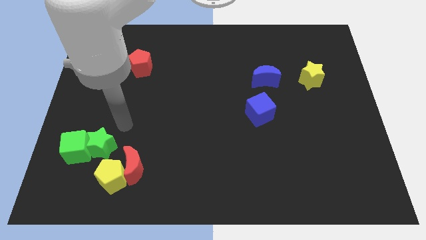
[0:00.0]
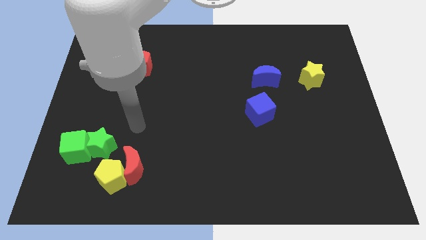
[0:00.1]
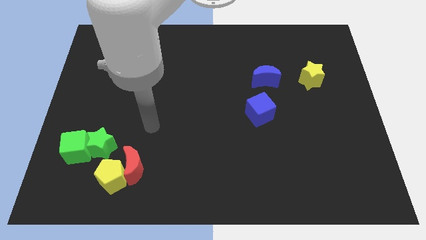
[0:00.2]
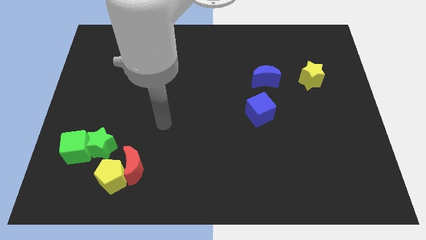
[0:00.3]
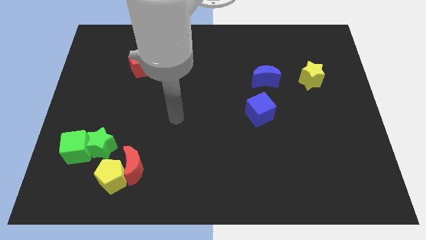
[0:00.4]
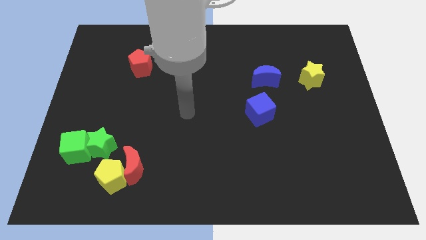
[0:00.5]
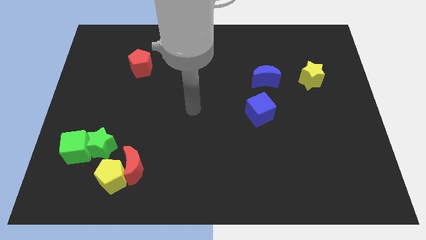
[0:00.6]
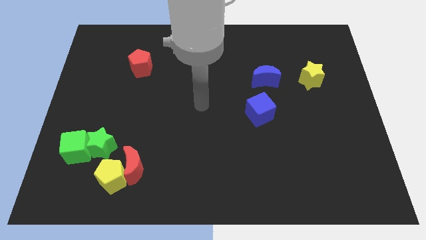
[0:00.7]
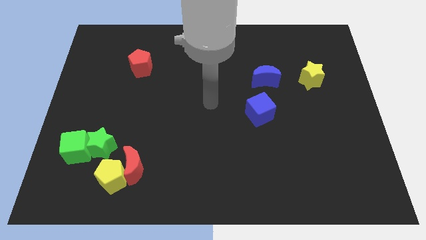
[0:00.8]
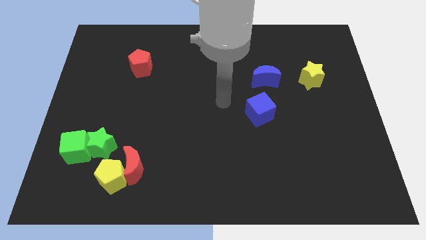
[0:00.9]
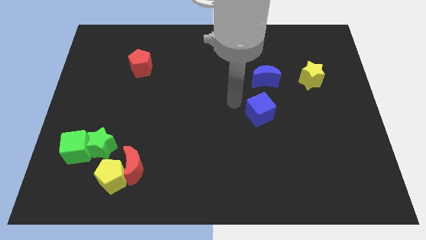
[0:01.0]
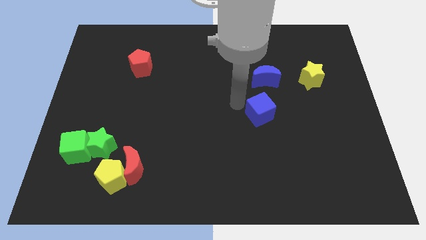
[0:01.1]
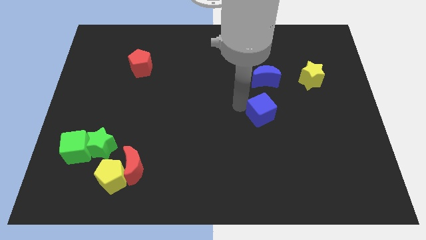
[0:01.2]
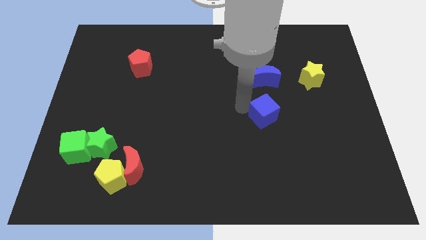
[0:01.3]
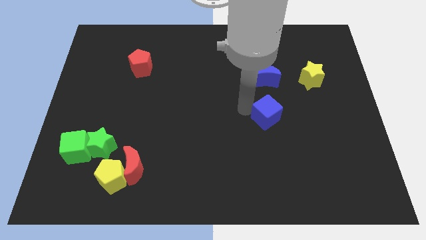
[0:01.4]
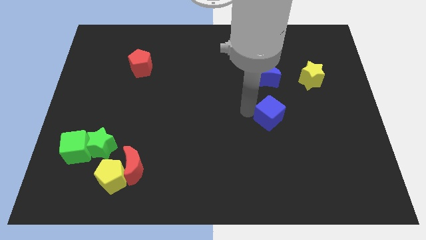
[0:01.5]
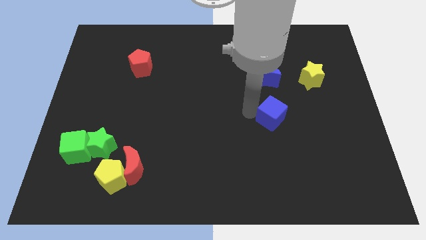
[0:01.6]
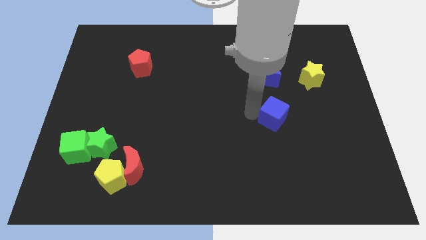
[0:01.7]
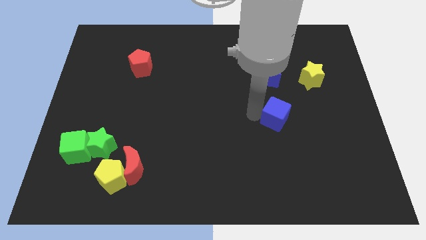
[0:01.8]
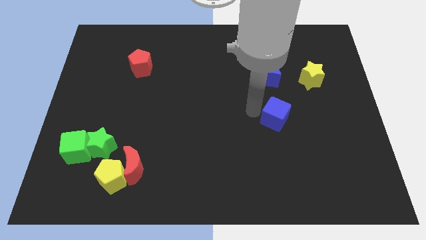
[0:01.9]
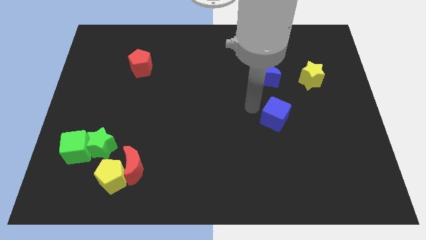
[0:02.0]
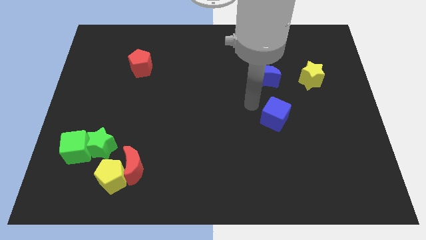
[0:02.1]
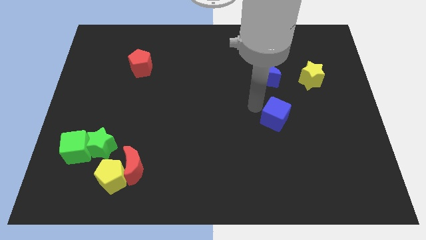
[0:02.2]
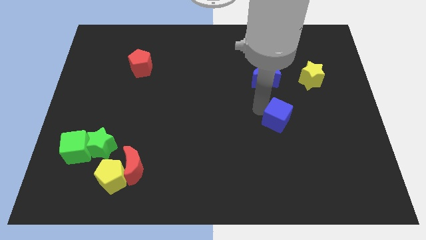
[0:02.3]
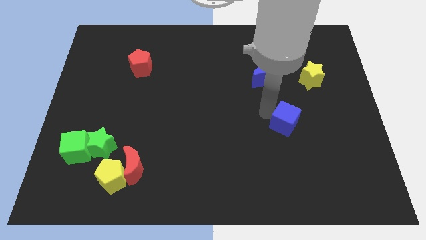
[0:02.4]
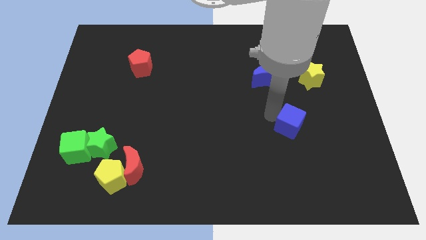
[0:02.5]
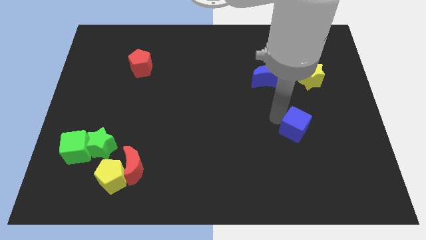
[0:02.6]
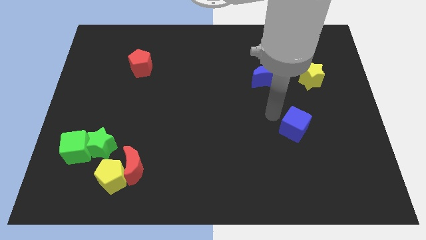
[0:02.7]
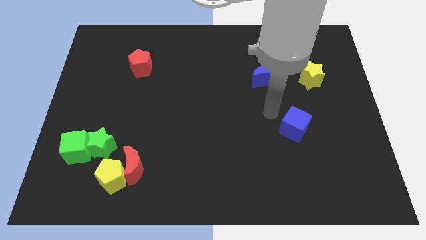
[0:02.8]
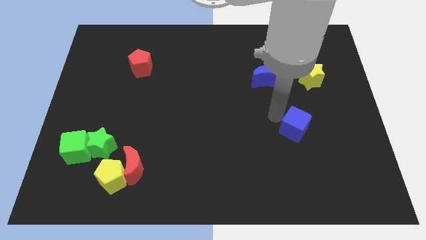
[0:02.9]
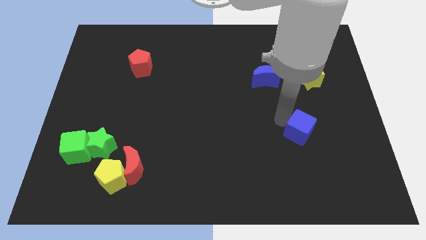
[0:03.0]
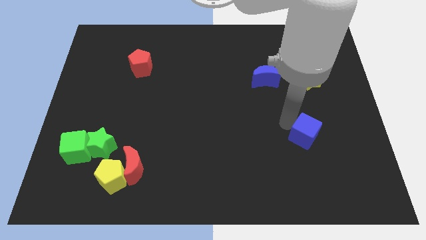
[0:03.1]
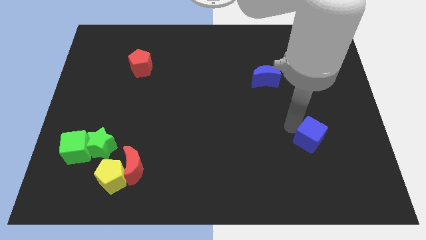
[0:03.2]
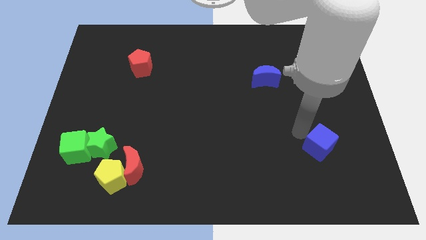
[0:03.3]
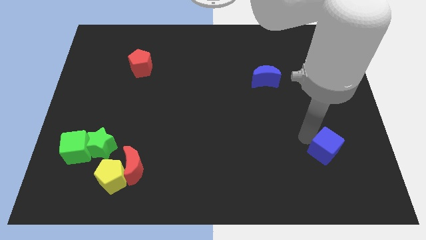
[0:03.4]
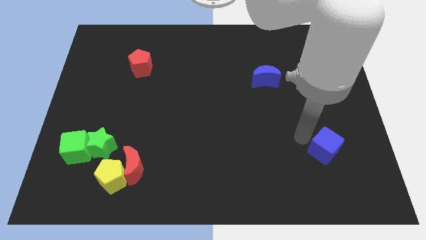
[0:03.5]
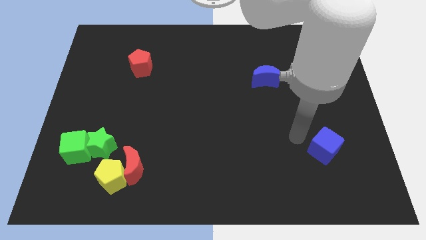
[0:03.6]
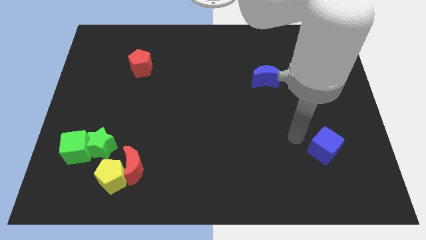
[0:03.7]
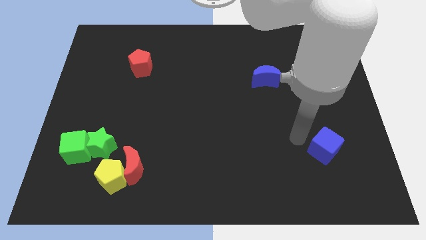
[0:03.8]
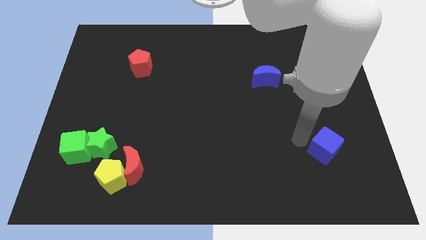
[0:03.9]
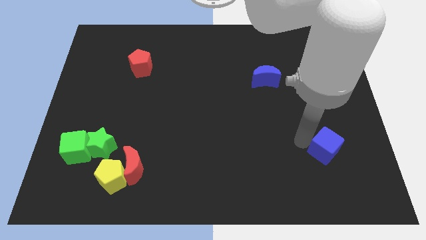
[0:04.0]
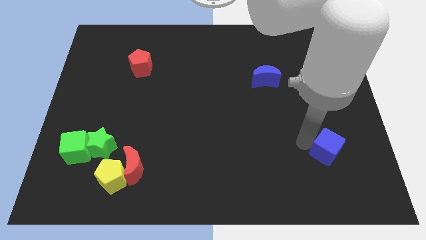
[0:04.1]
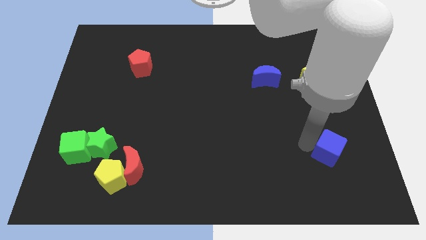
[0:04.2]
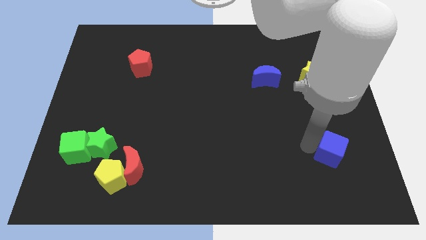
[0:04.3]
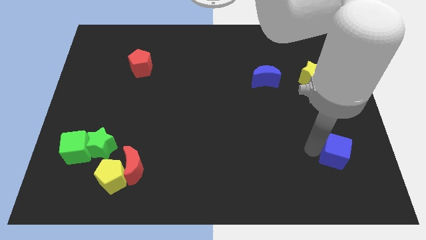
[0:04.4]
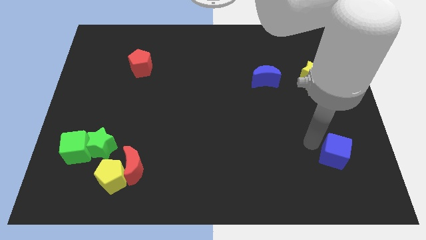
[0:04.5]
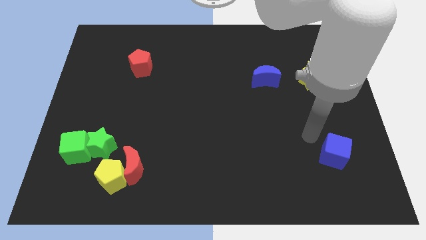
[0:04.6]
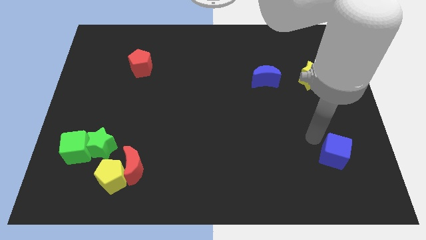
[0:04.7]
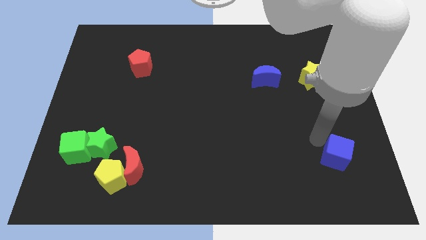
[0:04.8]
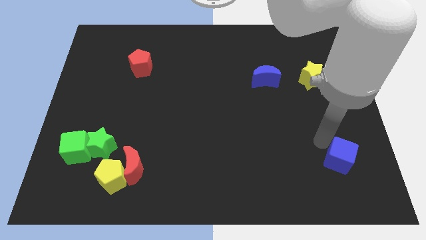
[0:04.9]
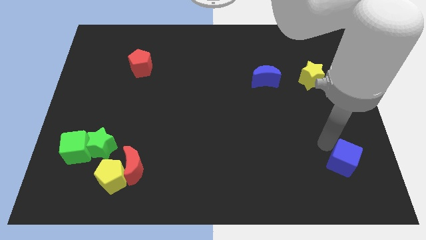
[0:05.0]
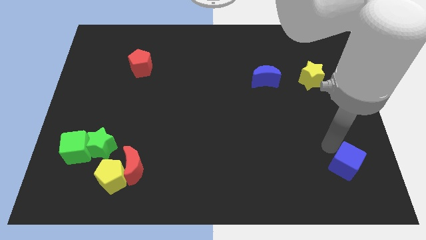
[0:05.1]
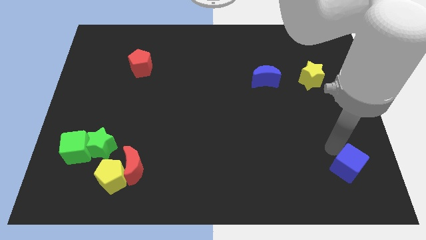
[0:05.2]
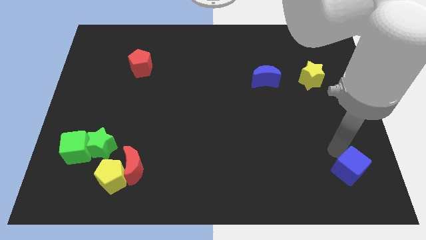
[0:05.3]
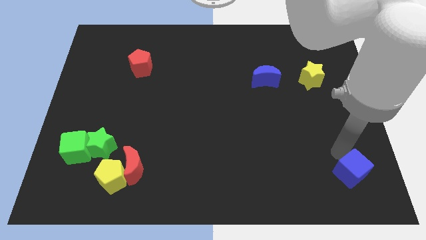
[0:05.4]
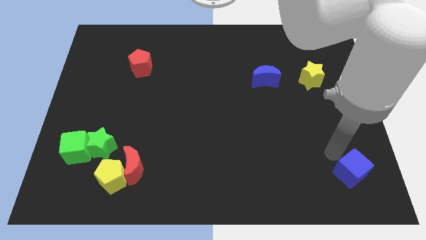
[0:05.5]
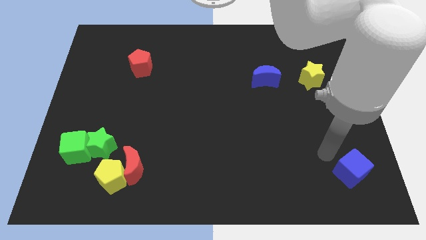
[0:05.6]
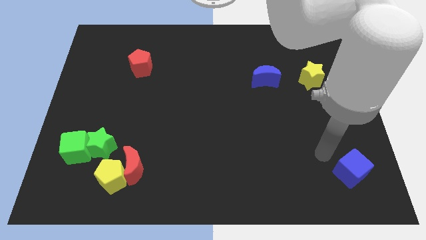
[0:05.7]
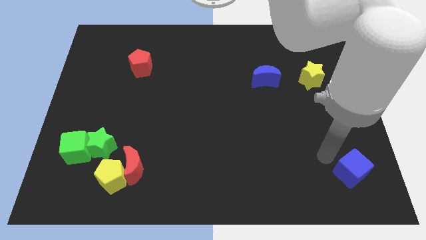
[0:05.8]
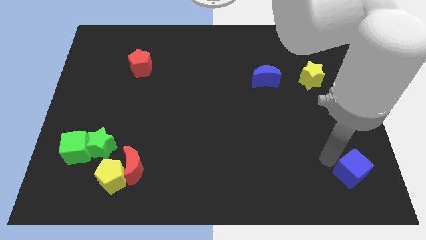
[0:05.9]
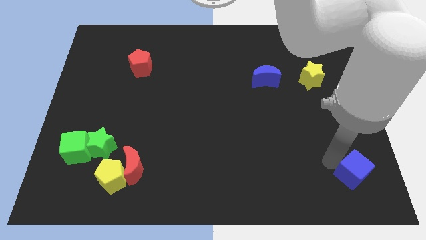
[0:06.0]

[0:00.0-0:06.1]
push the blue cube to the bottom right corner

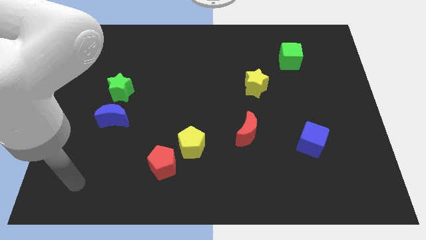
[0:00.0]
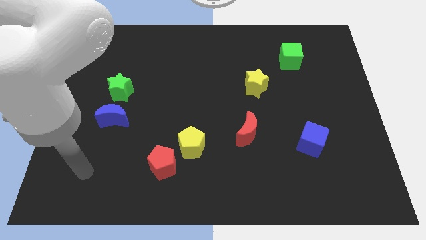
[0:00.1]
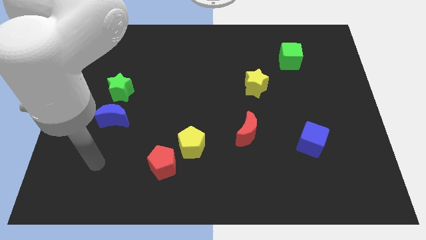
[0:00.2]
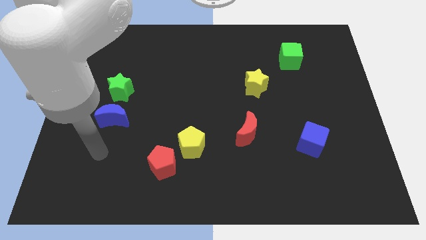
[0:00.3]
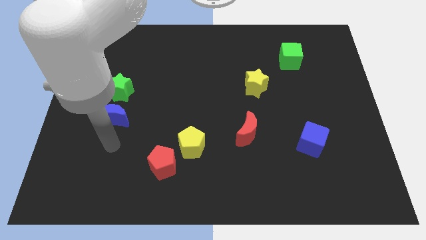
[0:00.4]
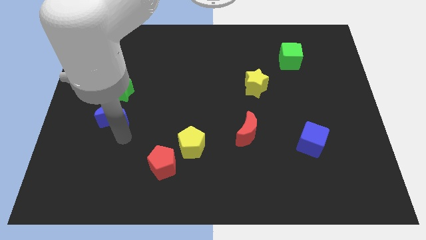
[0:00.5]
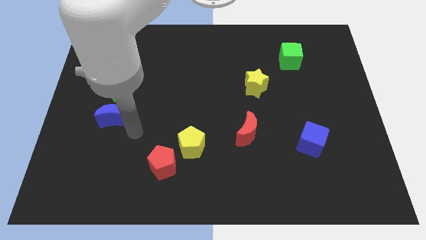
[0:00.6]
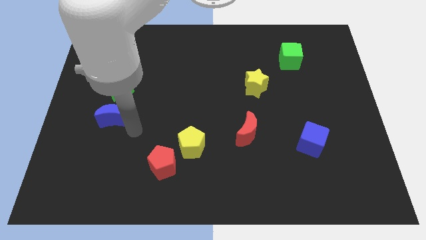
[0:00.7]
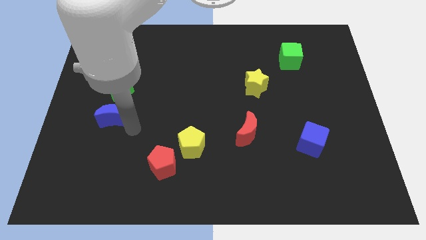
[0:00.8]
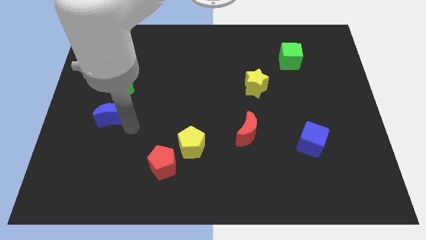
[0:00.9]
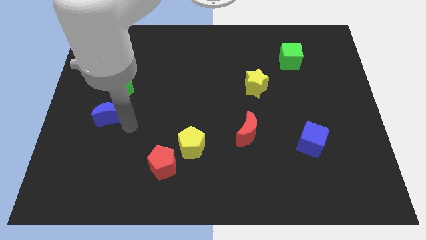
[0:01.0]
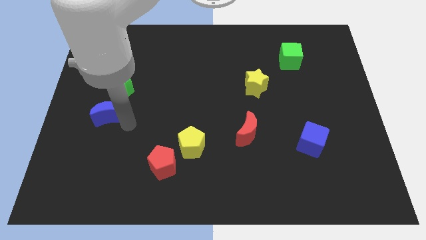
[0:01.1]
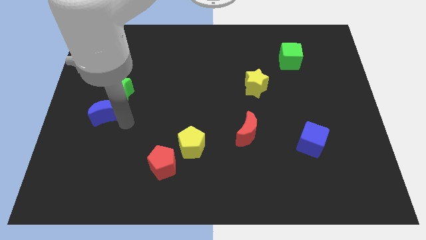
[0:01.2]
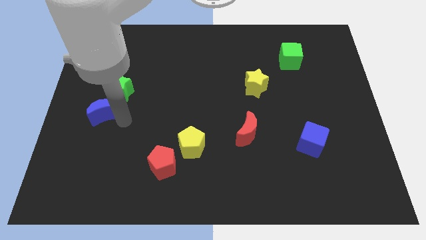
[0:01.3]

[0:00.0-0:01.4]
push the blue moon to the left side
